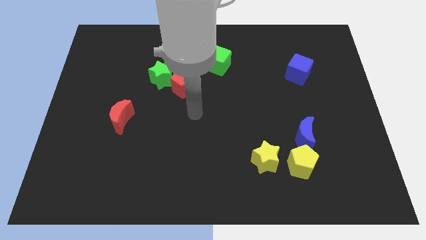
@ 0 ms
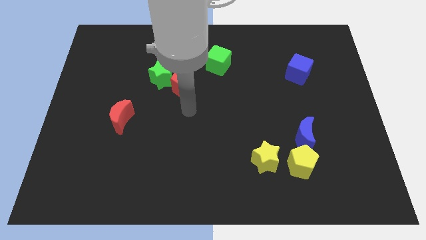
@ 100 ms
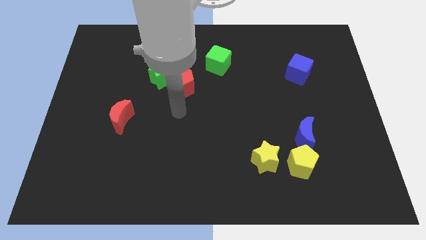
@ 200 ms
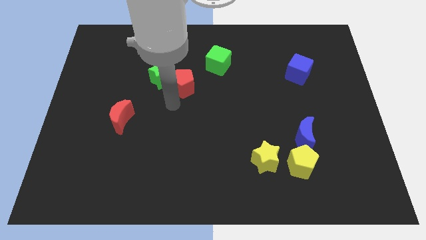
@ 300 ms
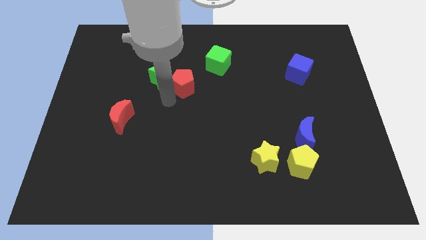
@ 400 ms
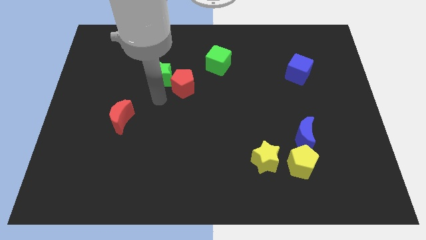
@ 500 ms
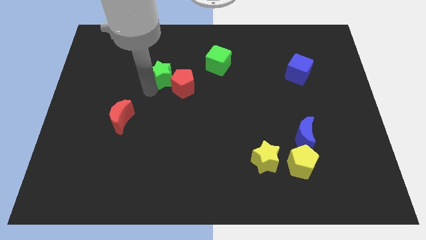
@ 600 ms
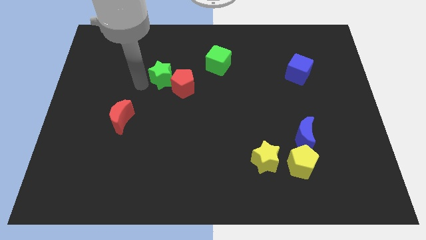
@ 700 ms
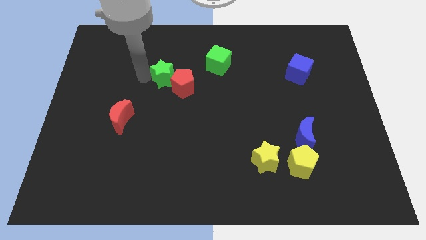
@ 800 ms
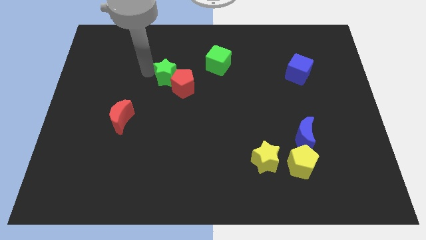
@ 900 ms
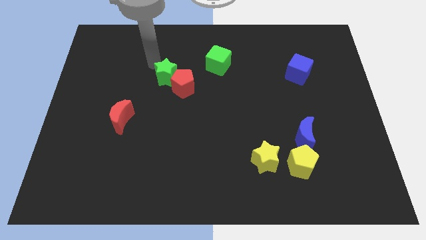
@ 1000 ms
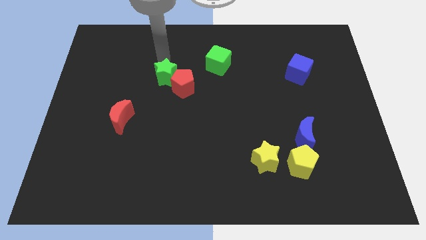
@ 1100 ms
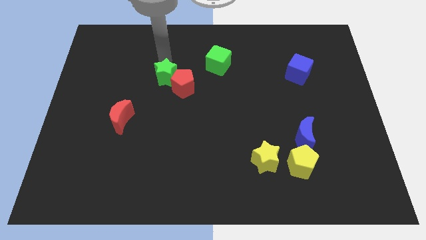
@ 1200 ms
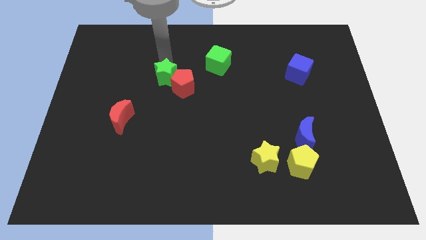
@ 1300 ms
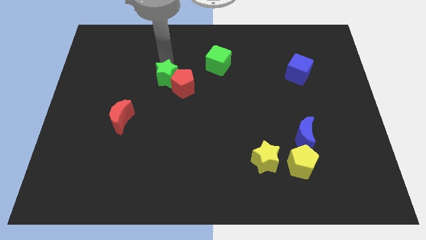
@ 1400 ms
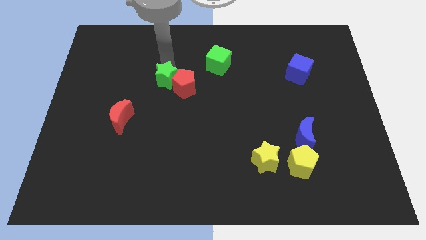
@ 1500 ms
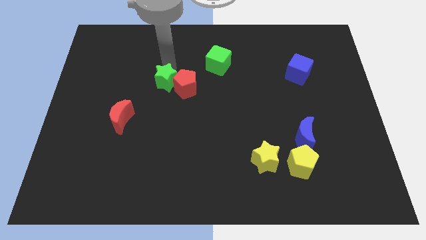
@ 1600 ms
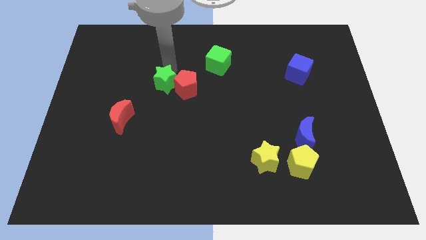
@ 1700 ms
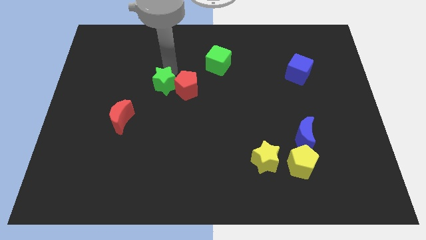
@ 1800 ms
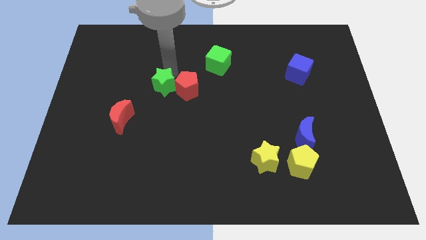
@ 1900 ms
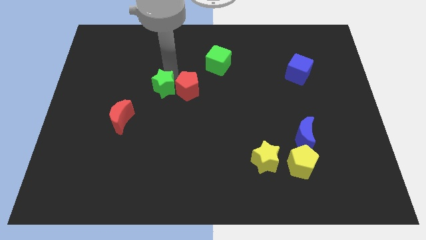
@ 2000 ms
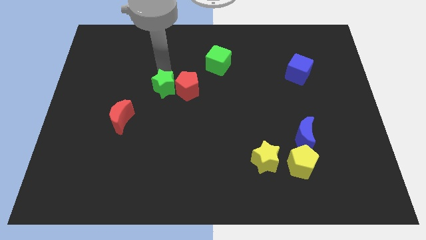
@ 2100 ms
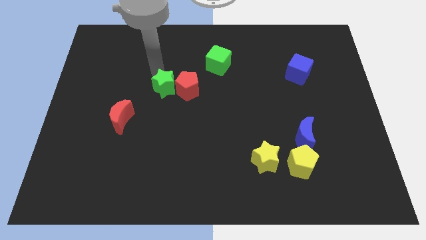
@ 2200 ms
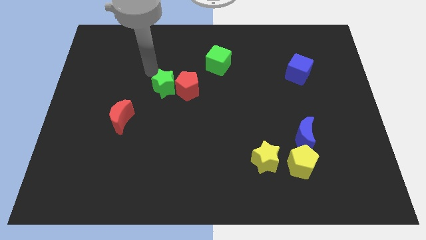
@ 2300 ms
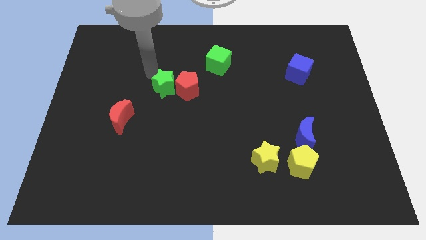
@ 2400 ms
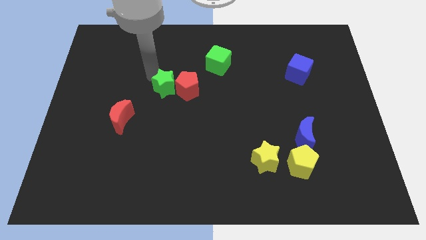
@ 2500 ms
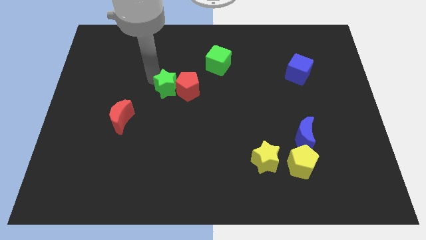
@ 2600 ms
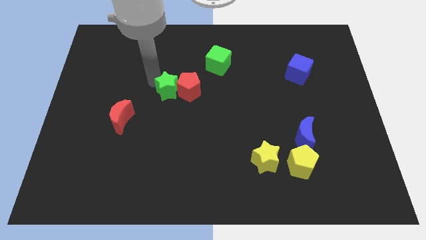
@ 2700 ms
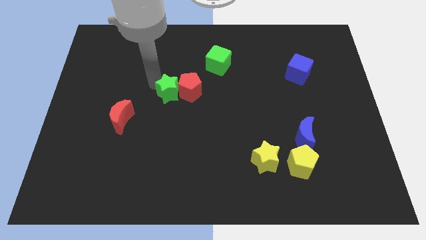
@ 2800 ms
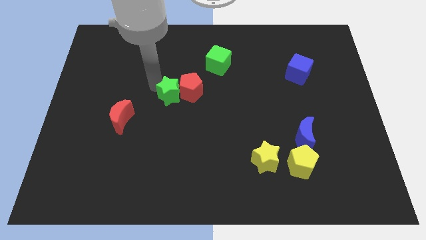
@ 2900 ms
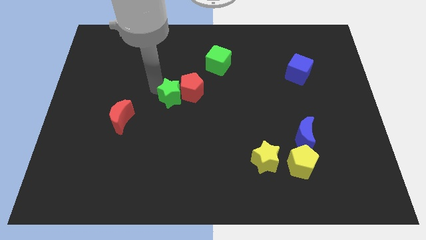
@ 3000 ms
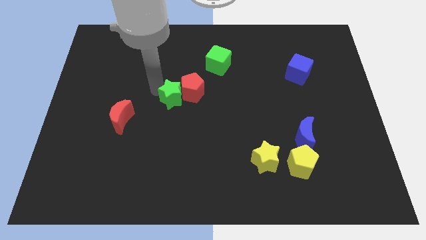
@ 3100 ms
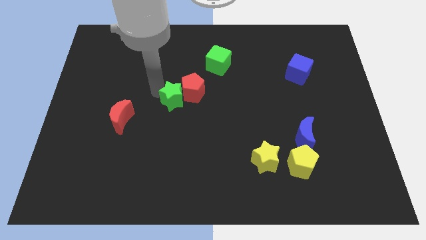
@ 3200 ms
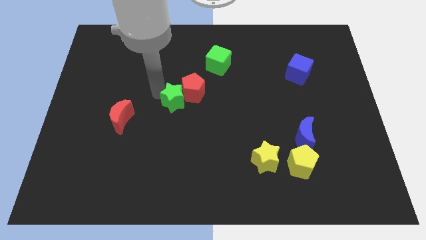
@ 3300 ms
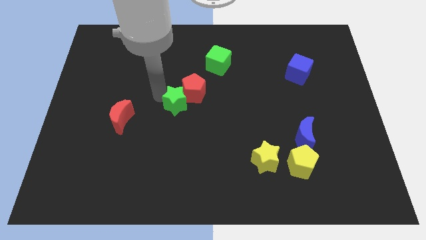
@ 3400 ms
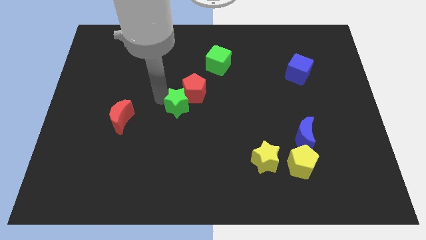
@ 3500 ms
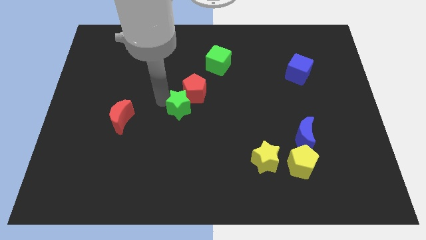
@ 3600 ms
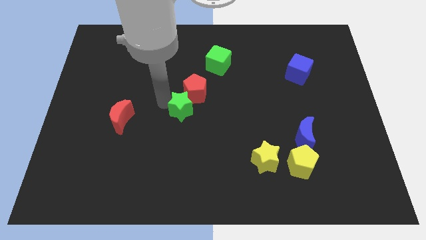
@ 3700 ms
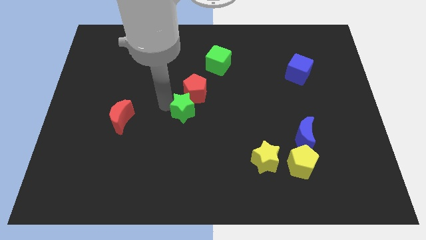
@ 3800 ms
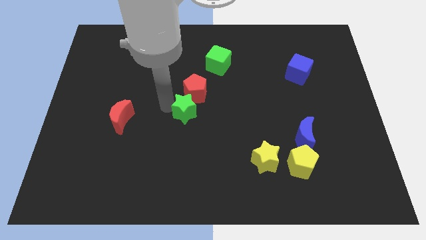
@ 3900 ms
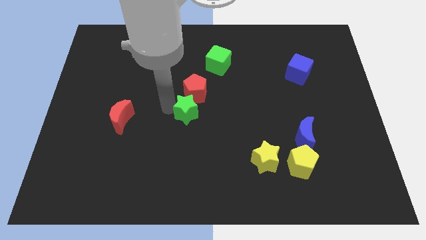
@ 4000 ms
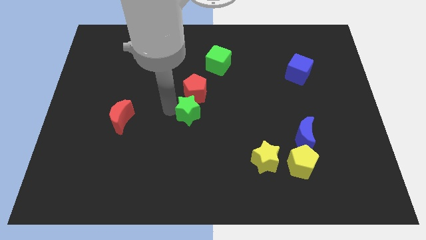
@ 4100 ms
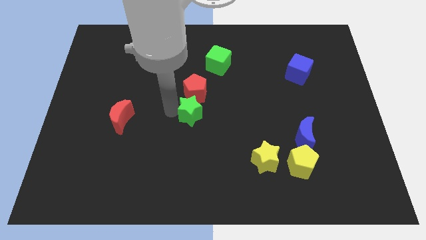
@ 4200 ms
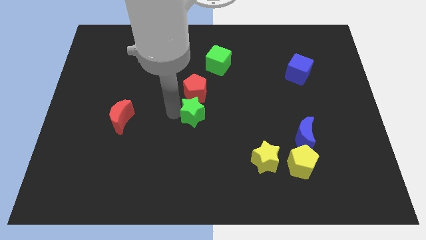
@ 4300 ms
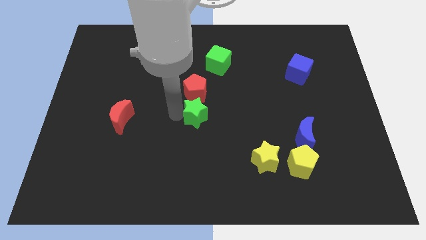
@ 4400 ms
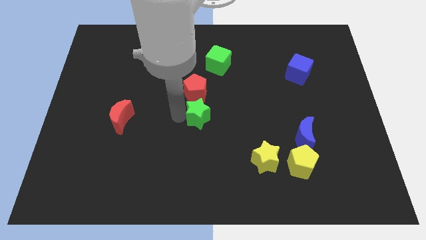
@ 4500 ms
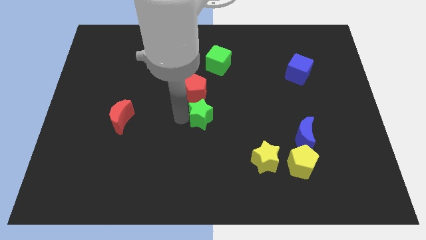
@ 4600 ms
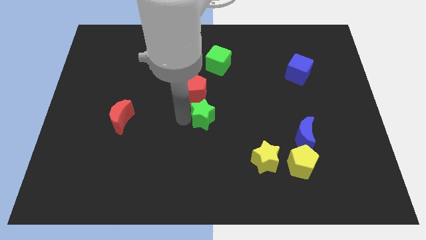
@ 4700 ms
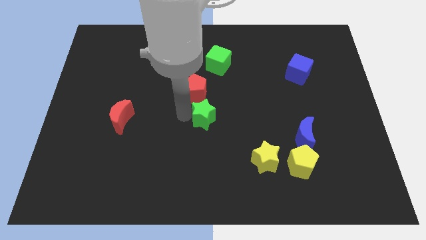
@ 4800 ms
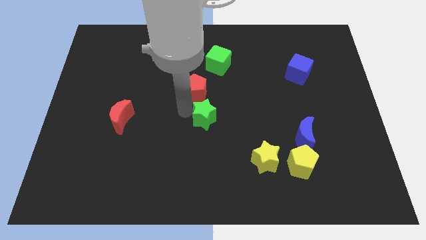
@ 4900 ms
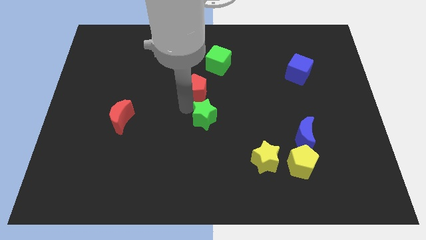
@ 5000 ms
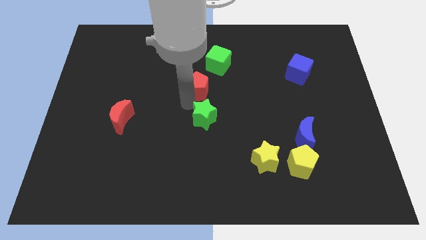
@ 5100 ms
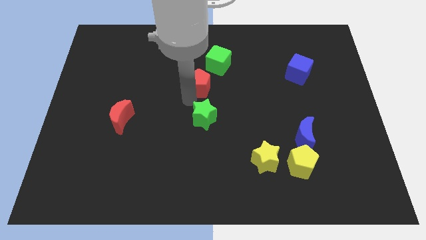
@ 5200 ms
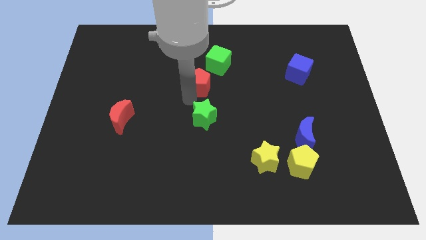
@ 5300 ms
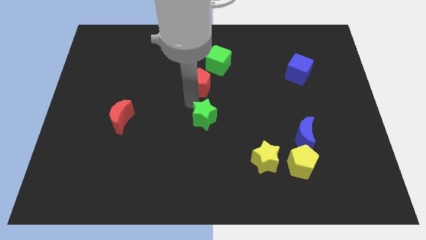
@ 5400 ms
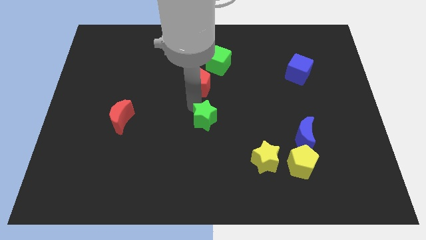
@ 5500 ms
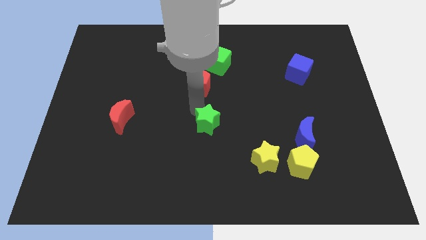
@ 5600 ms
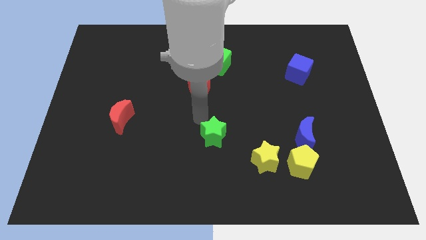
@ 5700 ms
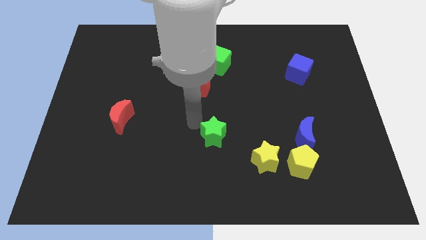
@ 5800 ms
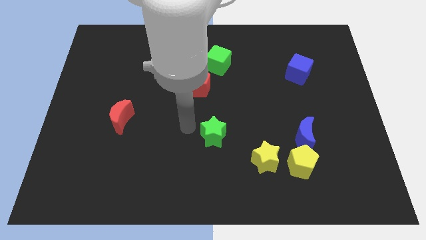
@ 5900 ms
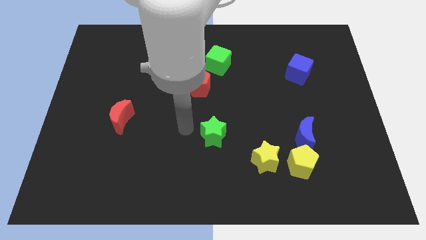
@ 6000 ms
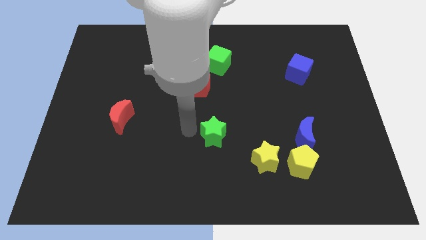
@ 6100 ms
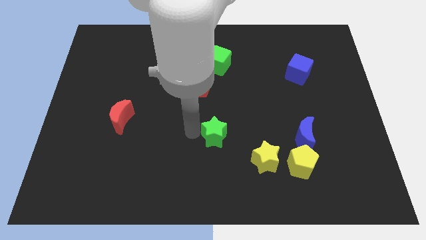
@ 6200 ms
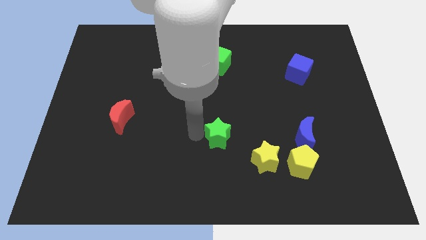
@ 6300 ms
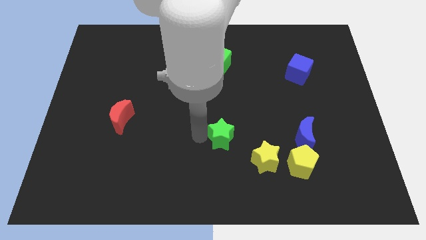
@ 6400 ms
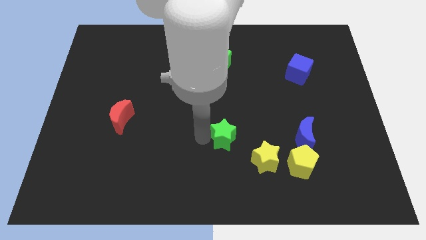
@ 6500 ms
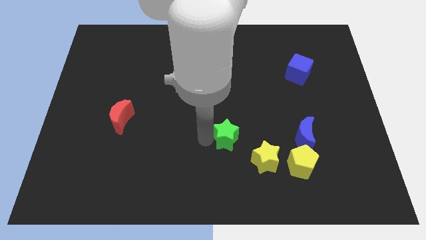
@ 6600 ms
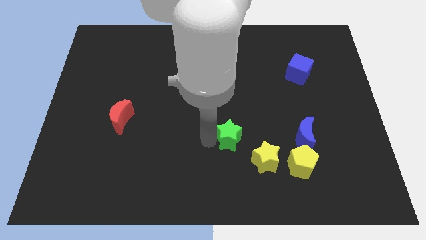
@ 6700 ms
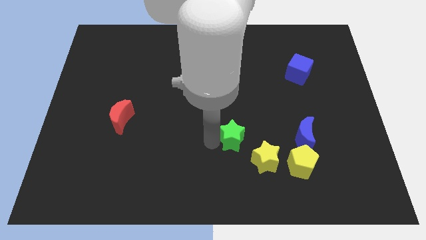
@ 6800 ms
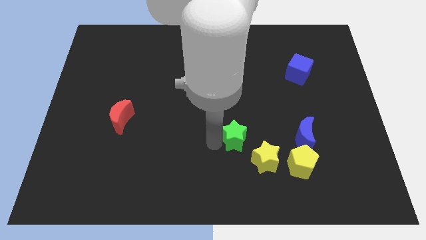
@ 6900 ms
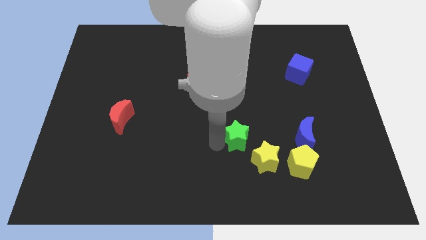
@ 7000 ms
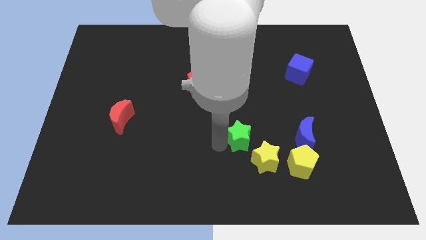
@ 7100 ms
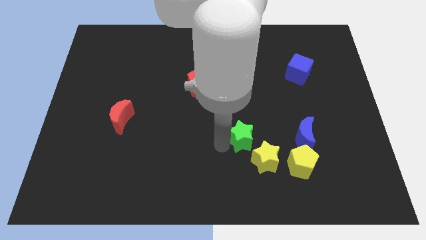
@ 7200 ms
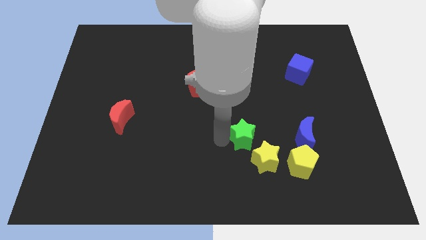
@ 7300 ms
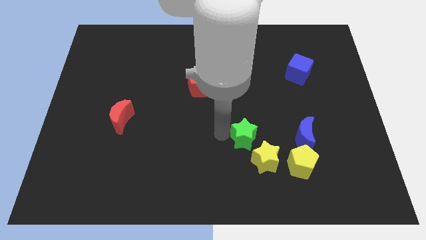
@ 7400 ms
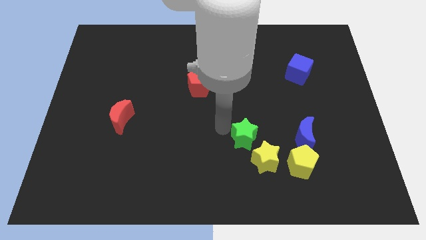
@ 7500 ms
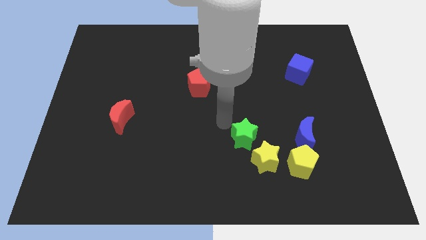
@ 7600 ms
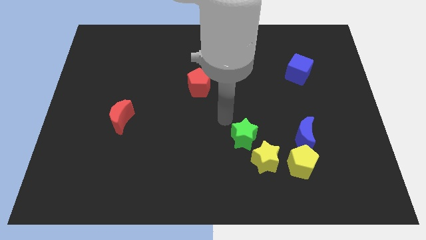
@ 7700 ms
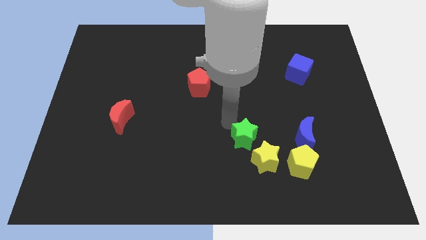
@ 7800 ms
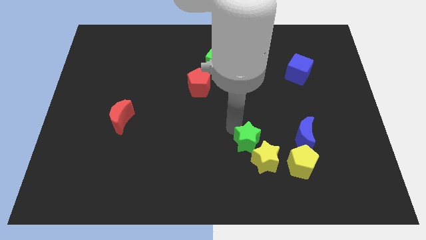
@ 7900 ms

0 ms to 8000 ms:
slide the green star close to the yellow star
